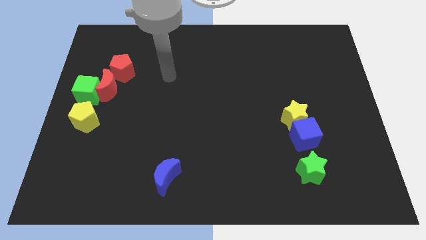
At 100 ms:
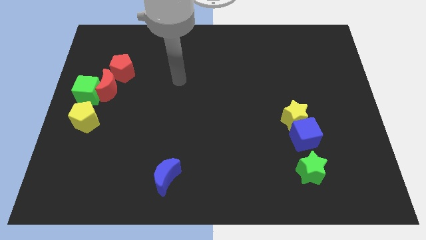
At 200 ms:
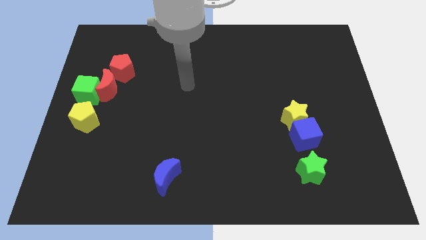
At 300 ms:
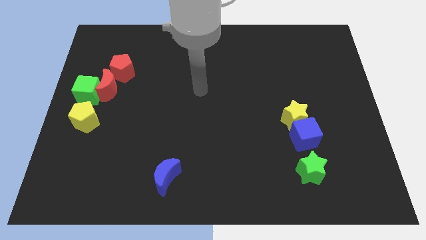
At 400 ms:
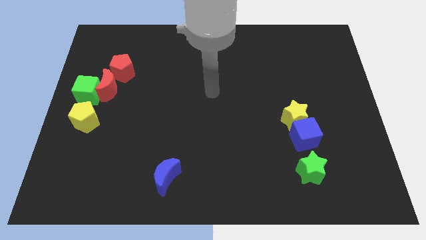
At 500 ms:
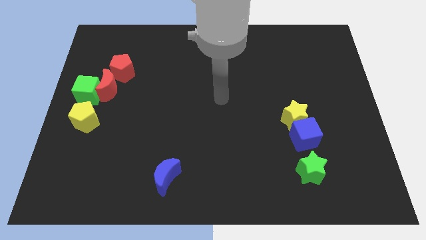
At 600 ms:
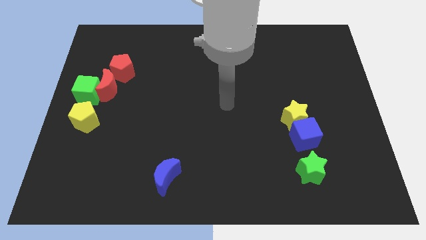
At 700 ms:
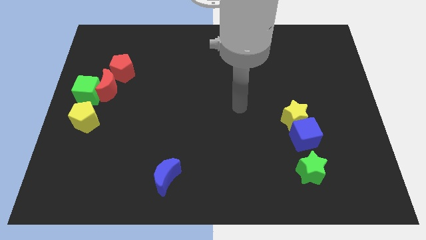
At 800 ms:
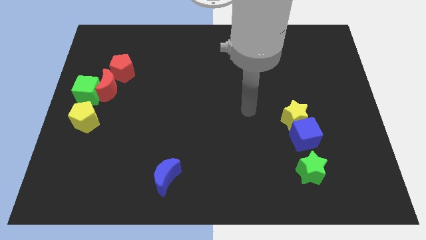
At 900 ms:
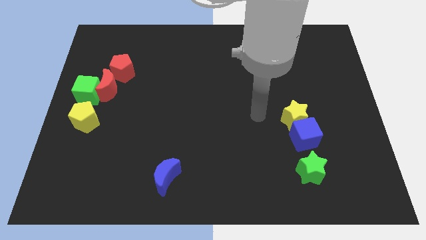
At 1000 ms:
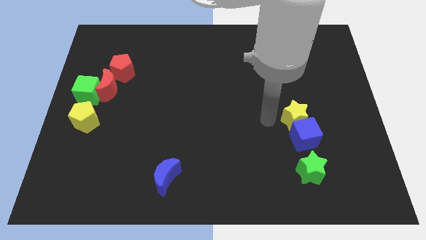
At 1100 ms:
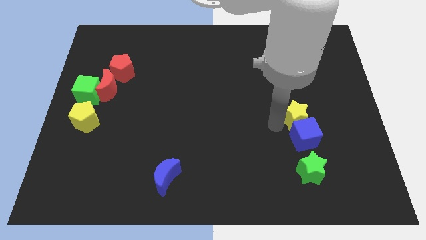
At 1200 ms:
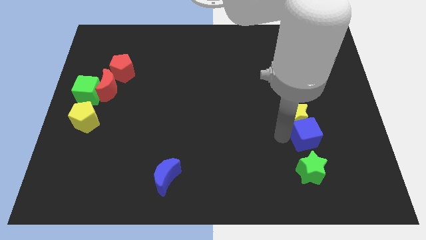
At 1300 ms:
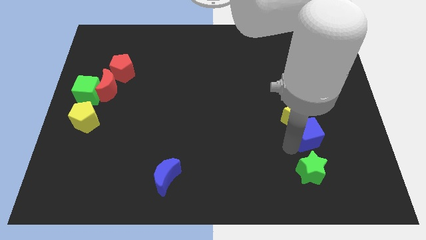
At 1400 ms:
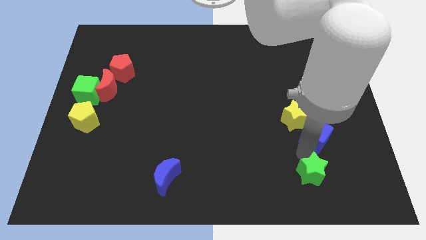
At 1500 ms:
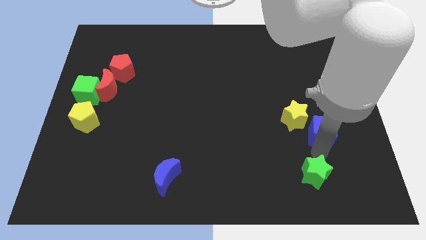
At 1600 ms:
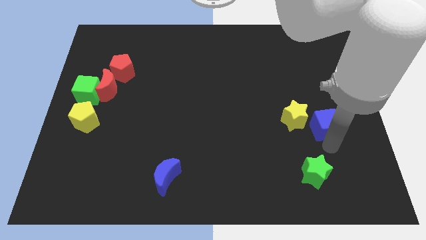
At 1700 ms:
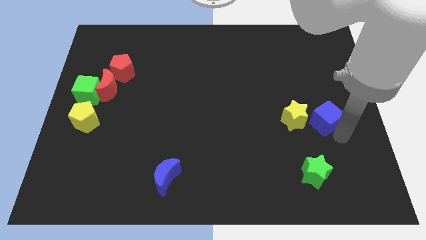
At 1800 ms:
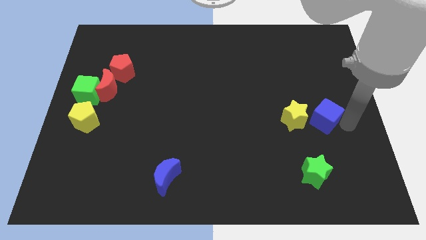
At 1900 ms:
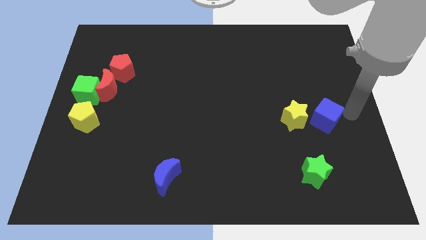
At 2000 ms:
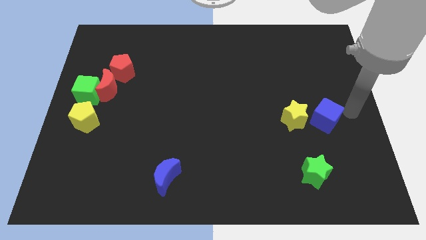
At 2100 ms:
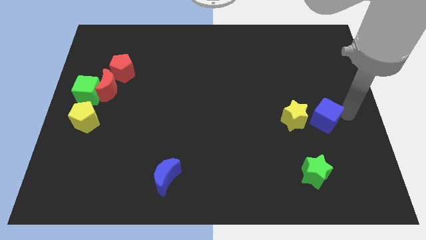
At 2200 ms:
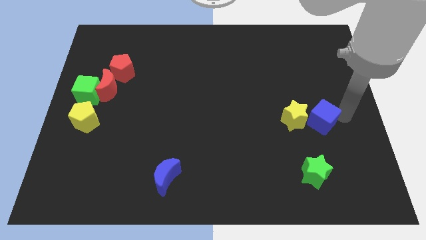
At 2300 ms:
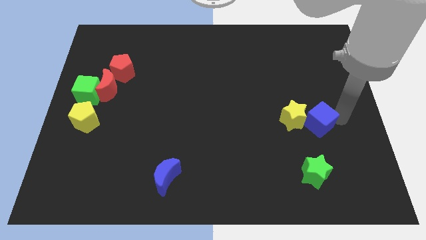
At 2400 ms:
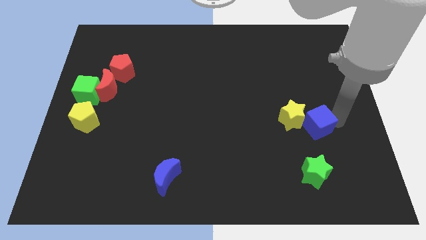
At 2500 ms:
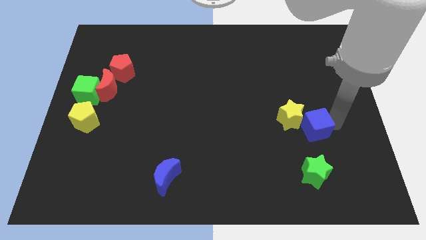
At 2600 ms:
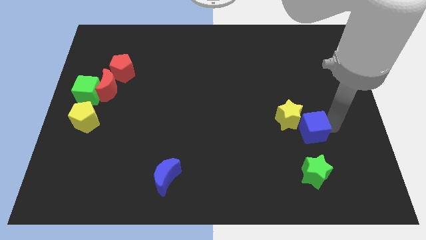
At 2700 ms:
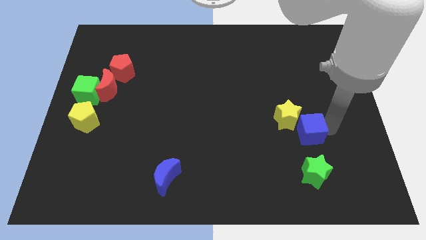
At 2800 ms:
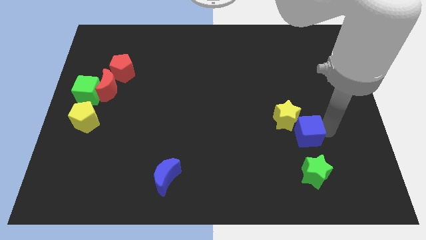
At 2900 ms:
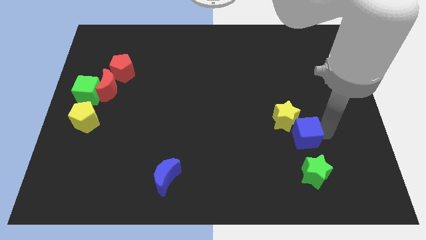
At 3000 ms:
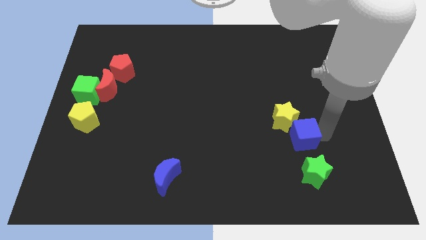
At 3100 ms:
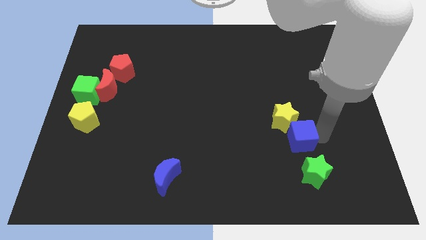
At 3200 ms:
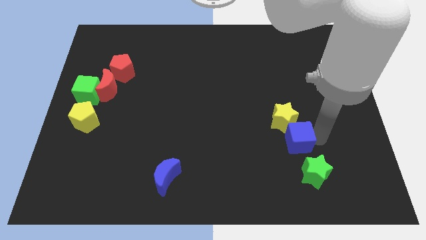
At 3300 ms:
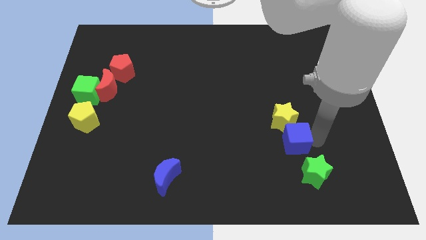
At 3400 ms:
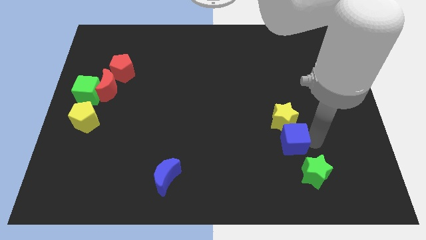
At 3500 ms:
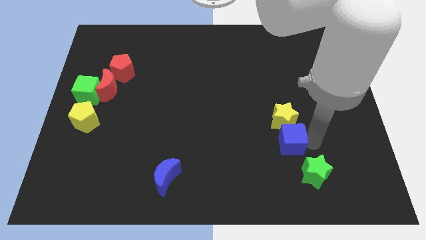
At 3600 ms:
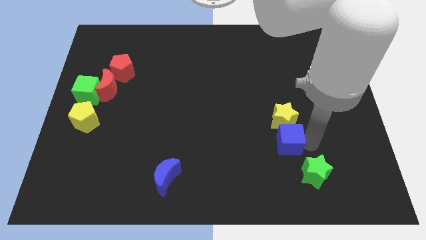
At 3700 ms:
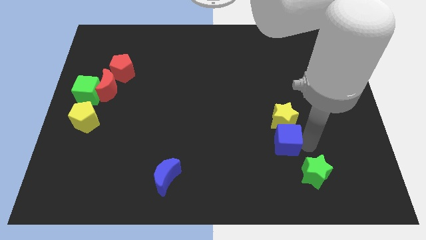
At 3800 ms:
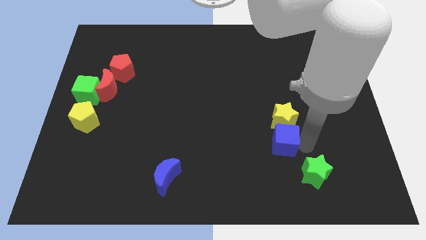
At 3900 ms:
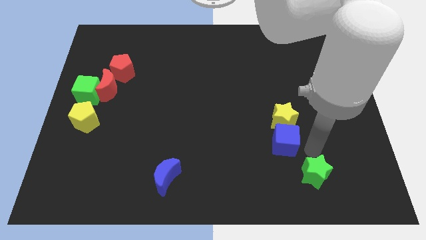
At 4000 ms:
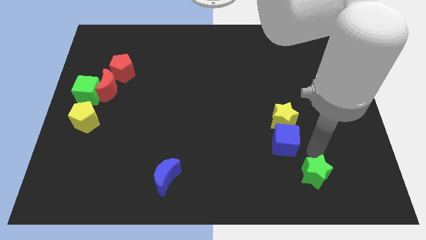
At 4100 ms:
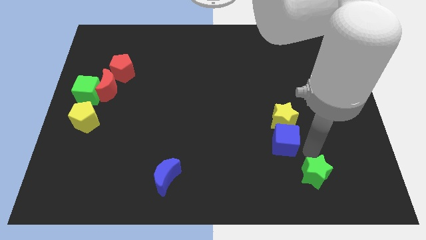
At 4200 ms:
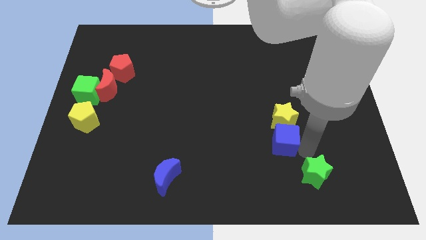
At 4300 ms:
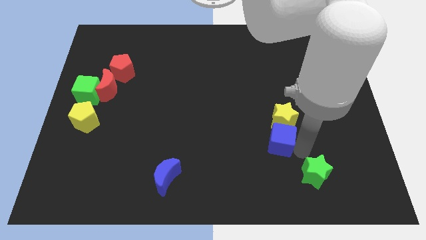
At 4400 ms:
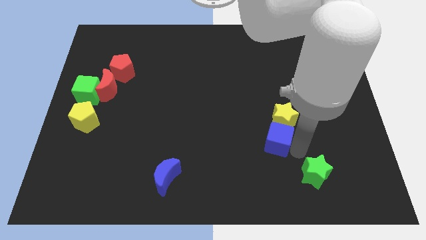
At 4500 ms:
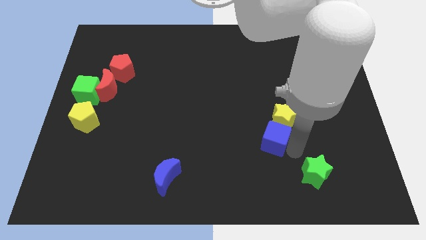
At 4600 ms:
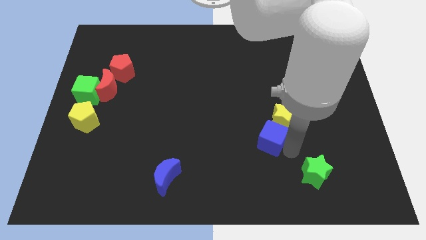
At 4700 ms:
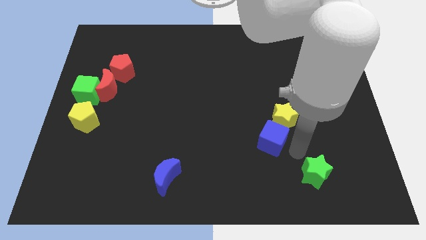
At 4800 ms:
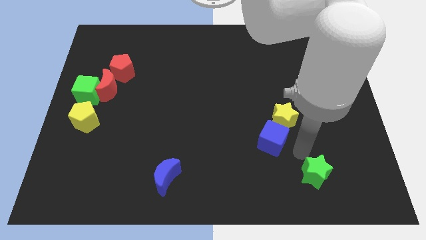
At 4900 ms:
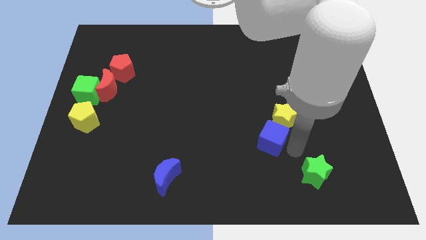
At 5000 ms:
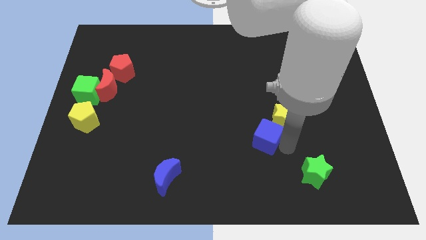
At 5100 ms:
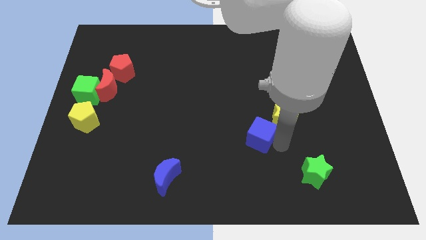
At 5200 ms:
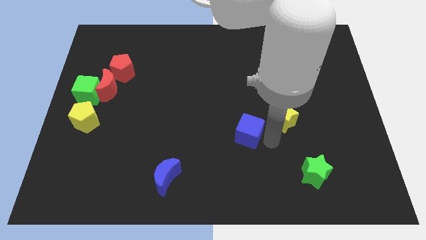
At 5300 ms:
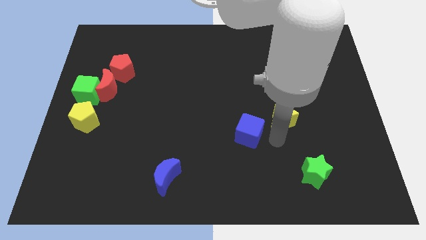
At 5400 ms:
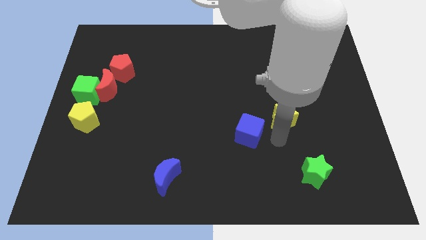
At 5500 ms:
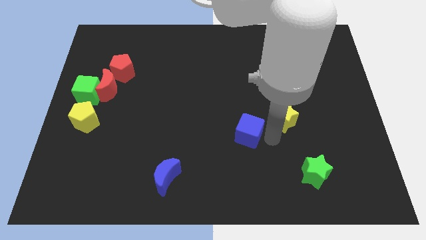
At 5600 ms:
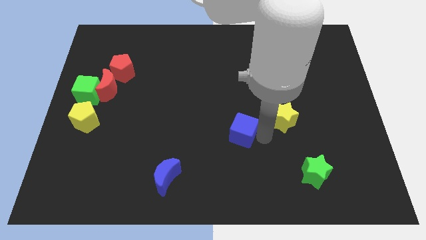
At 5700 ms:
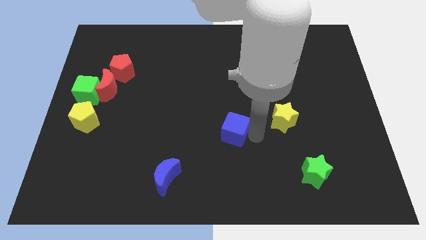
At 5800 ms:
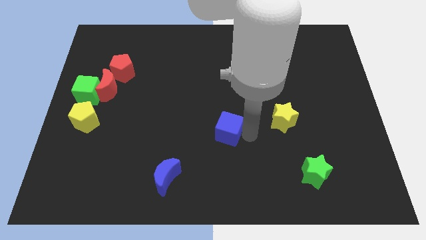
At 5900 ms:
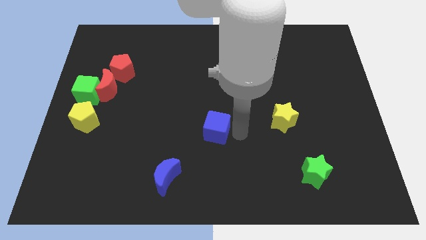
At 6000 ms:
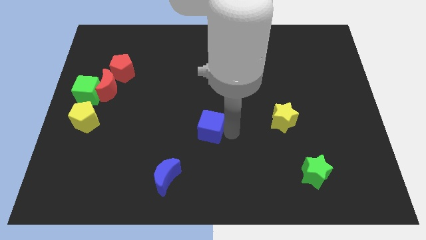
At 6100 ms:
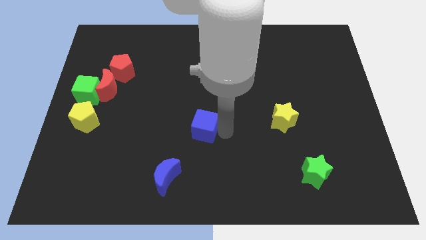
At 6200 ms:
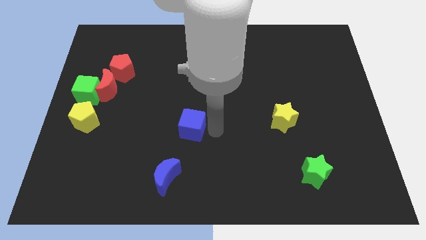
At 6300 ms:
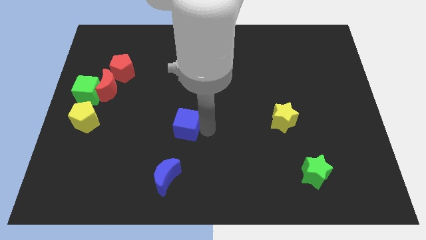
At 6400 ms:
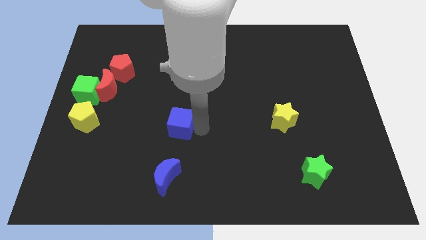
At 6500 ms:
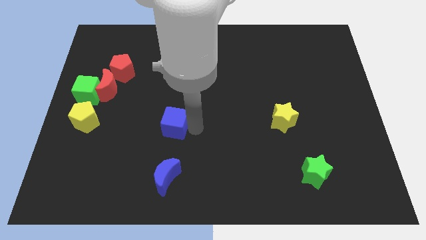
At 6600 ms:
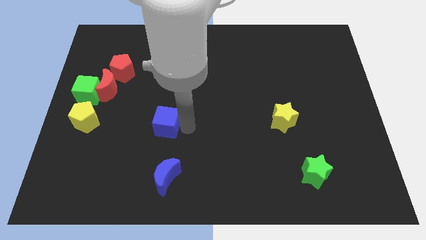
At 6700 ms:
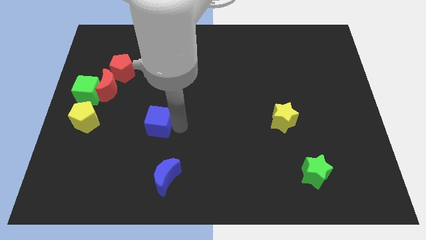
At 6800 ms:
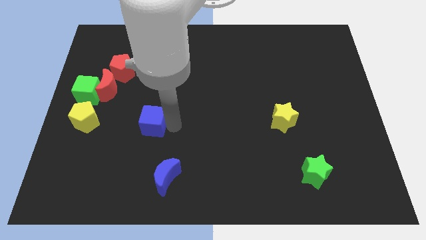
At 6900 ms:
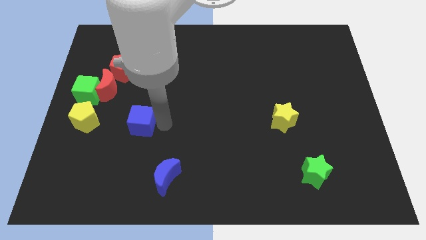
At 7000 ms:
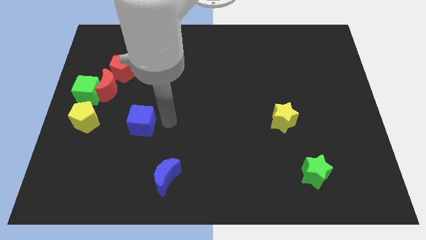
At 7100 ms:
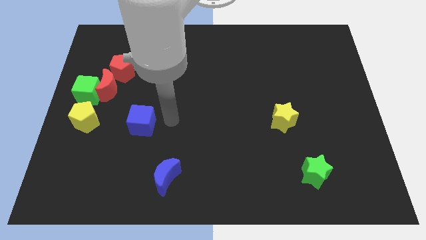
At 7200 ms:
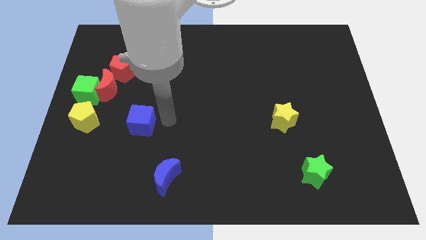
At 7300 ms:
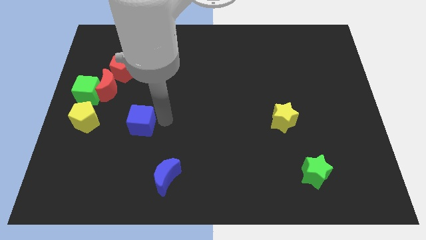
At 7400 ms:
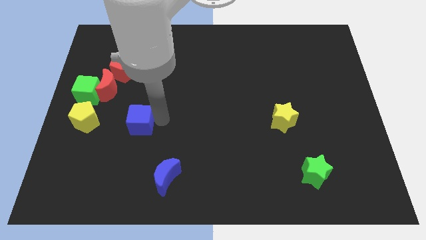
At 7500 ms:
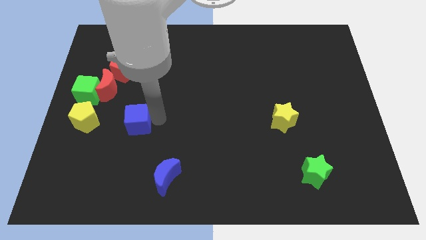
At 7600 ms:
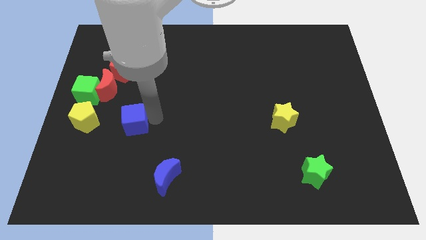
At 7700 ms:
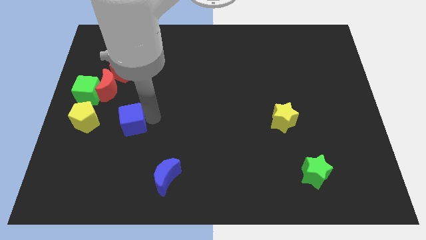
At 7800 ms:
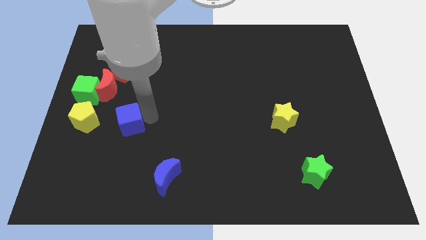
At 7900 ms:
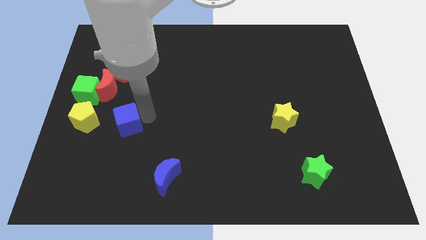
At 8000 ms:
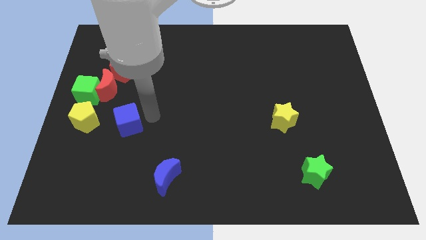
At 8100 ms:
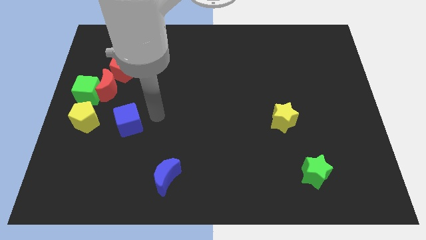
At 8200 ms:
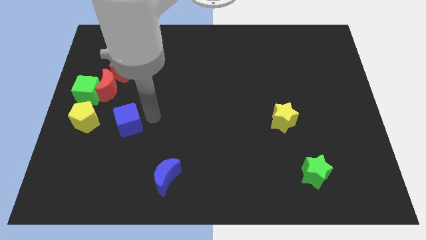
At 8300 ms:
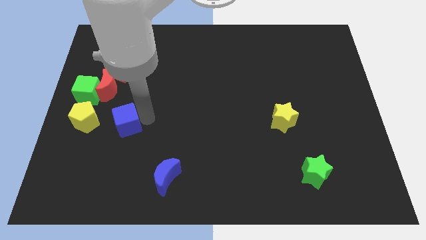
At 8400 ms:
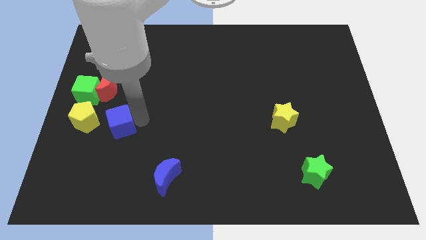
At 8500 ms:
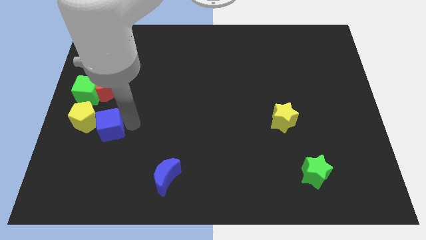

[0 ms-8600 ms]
move the blue cube next to the yellow pentagon
